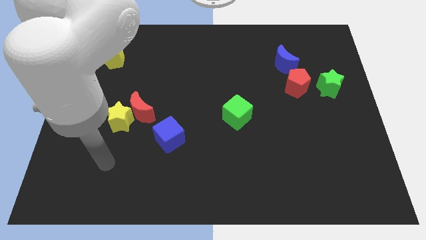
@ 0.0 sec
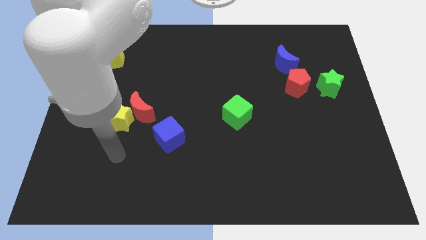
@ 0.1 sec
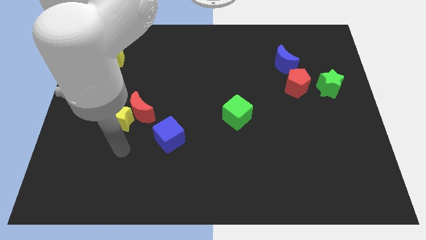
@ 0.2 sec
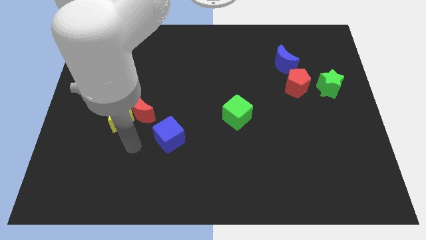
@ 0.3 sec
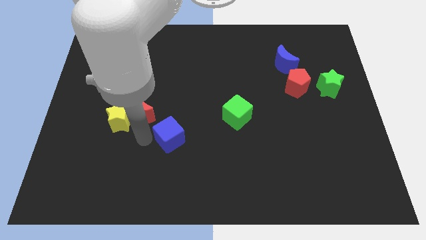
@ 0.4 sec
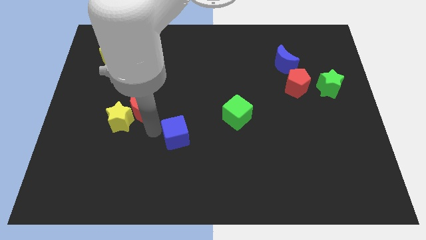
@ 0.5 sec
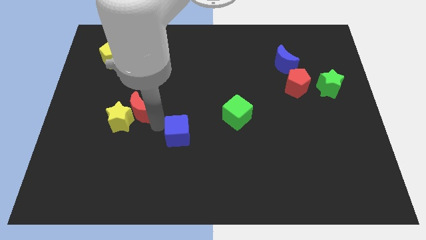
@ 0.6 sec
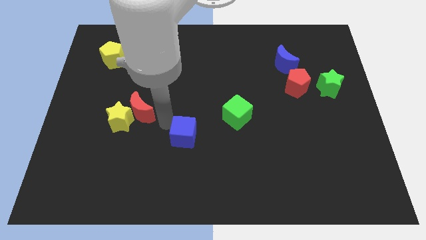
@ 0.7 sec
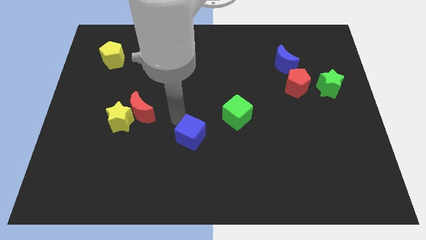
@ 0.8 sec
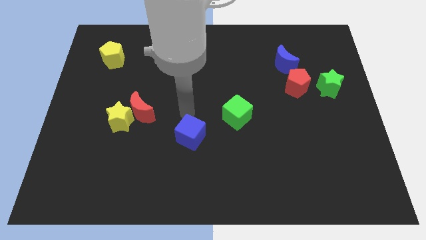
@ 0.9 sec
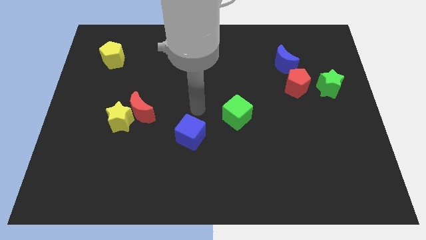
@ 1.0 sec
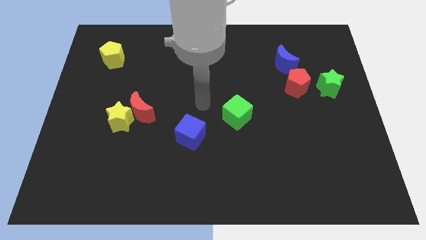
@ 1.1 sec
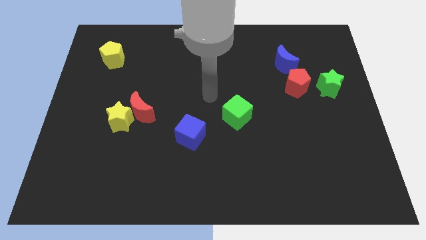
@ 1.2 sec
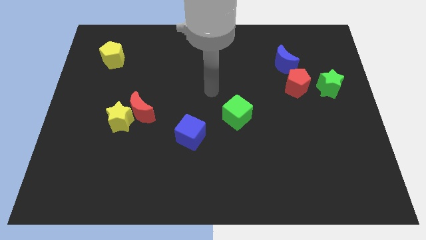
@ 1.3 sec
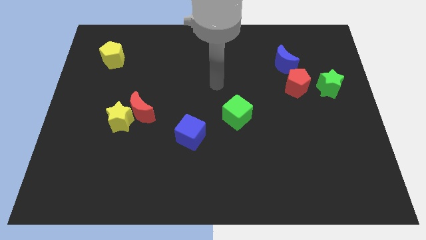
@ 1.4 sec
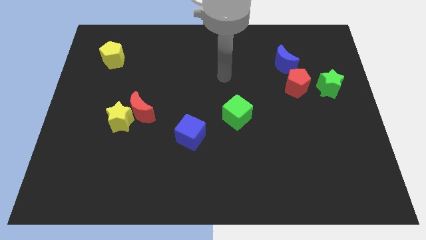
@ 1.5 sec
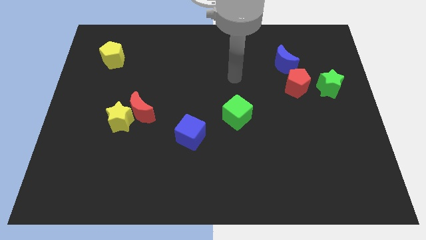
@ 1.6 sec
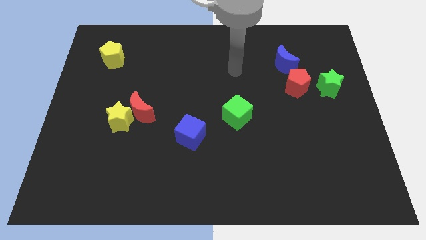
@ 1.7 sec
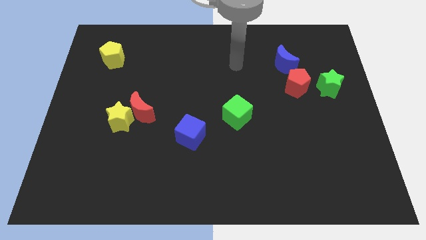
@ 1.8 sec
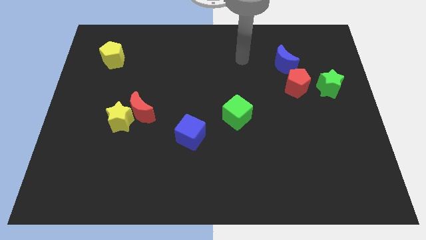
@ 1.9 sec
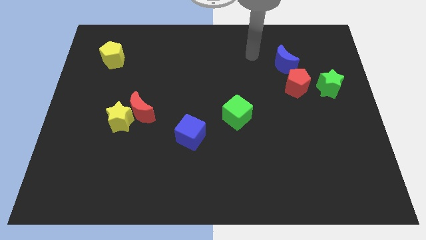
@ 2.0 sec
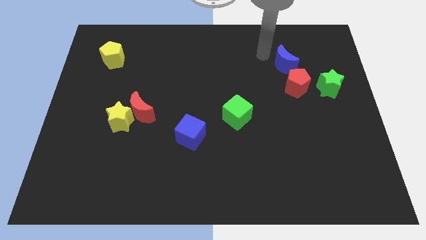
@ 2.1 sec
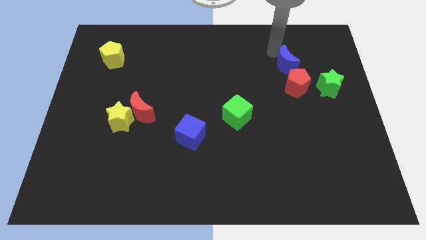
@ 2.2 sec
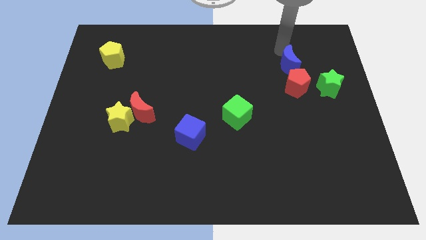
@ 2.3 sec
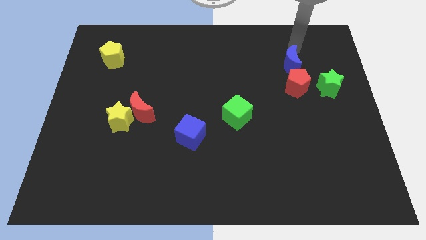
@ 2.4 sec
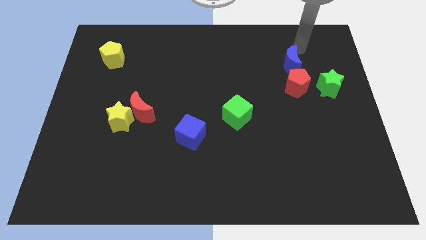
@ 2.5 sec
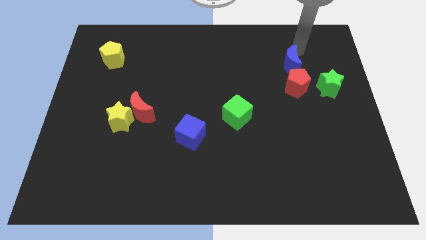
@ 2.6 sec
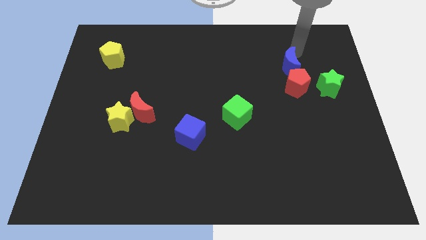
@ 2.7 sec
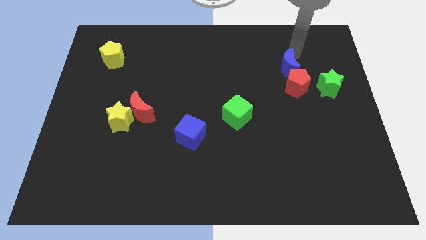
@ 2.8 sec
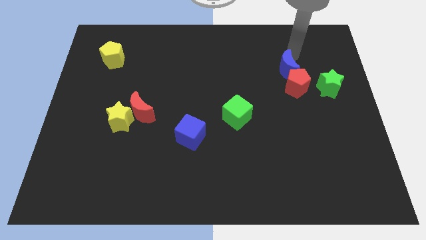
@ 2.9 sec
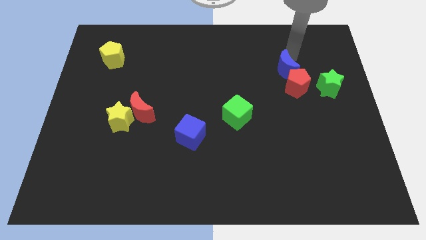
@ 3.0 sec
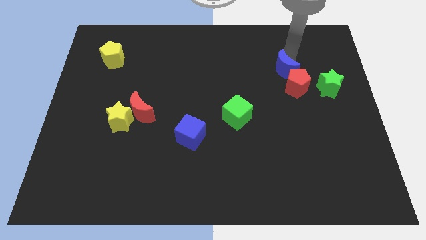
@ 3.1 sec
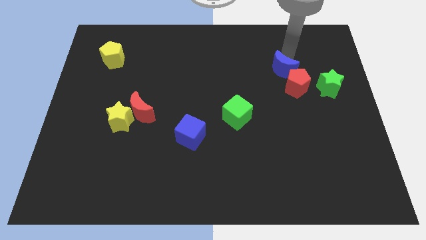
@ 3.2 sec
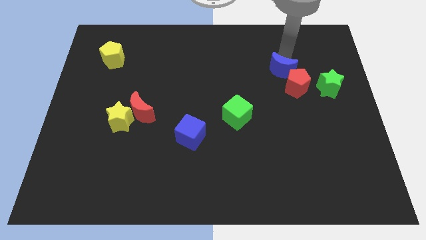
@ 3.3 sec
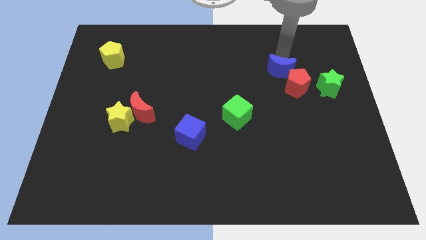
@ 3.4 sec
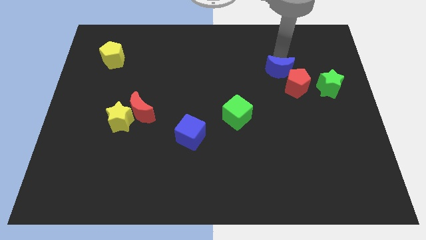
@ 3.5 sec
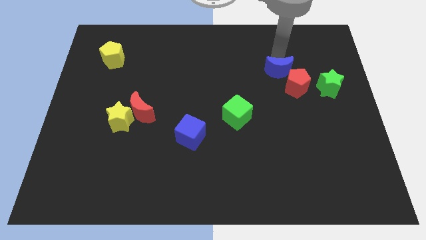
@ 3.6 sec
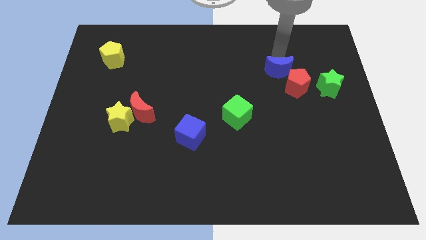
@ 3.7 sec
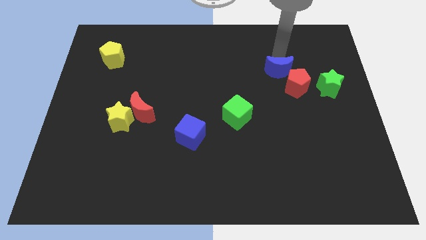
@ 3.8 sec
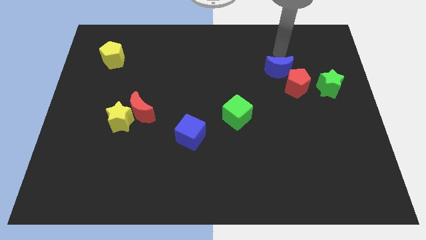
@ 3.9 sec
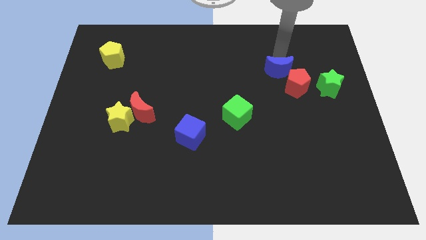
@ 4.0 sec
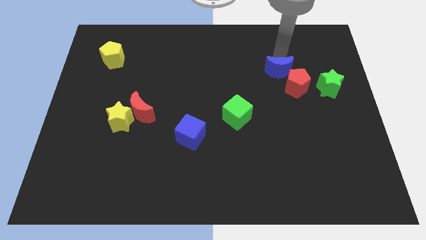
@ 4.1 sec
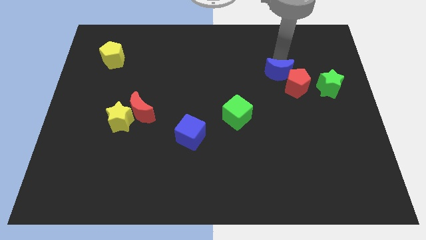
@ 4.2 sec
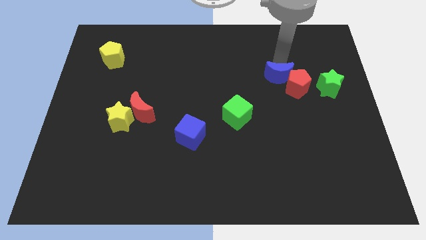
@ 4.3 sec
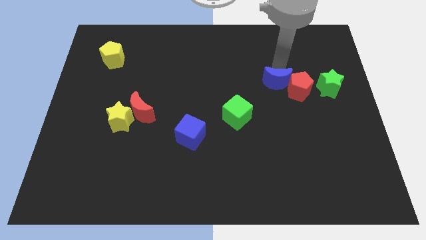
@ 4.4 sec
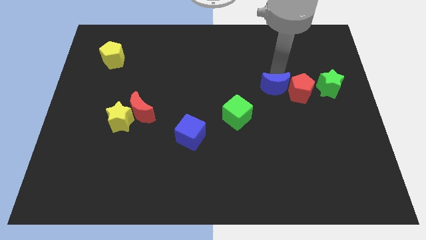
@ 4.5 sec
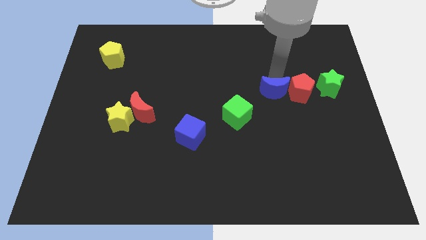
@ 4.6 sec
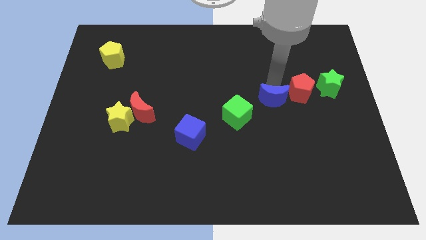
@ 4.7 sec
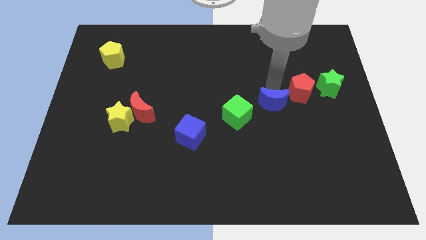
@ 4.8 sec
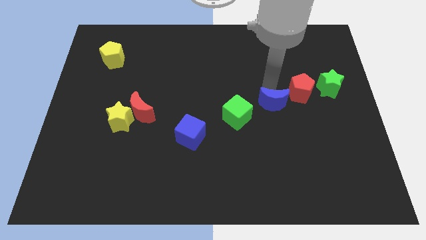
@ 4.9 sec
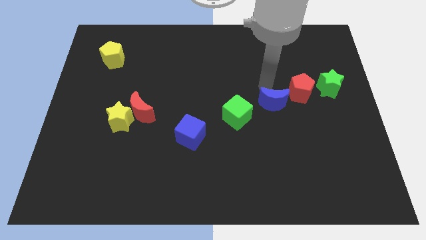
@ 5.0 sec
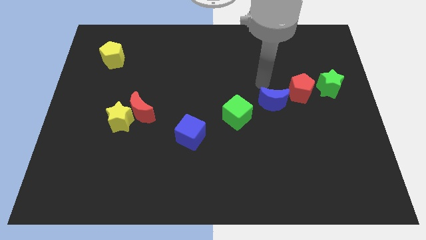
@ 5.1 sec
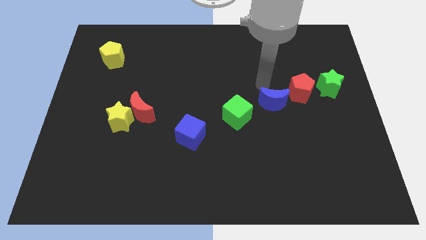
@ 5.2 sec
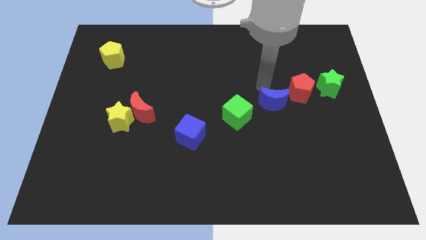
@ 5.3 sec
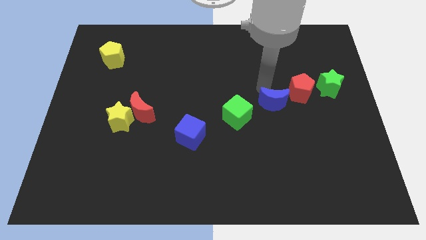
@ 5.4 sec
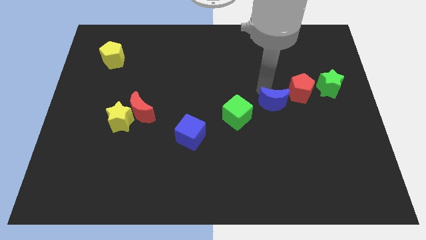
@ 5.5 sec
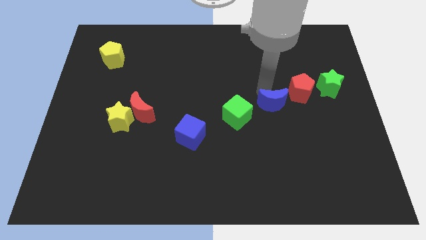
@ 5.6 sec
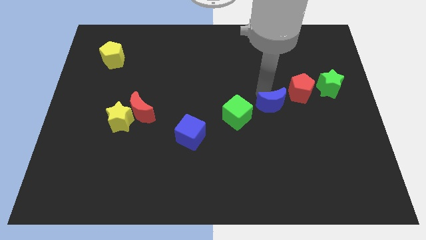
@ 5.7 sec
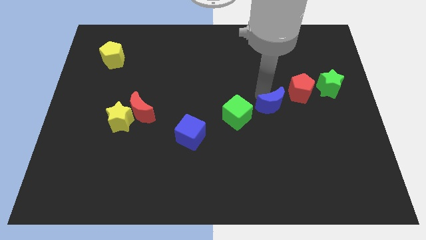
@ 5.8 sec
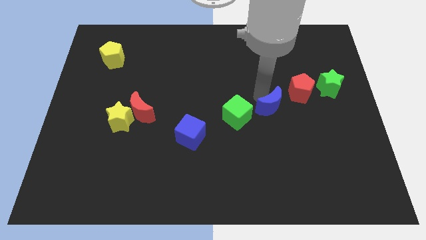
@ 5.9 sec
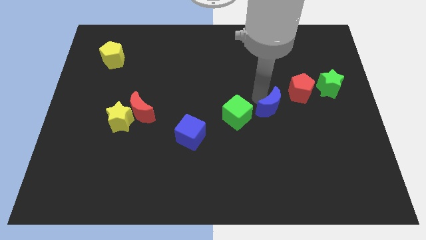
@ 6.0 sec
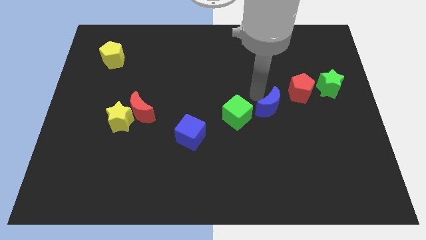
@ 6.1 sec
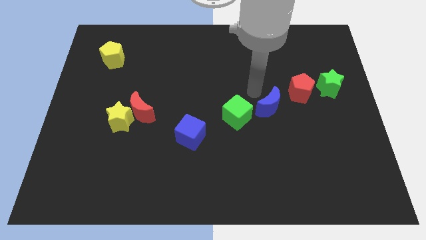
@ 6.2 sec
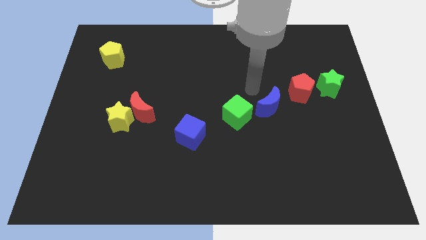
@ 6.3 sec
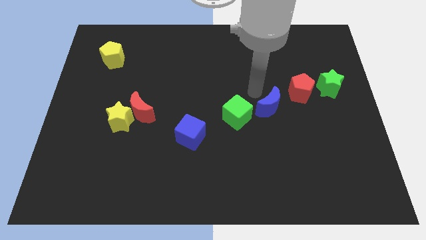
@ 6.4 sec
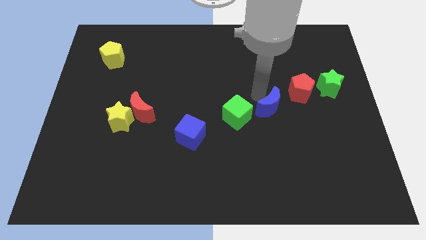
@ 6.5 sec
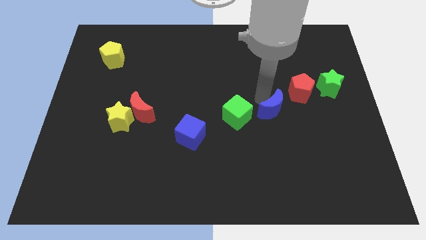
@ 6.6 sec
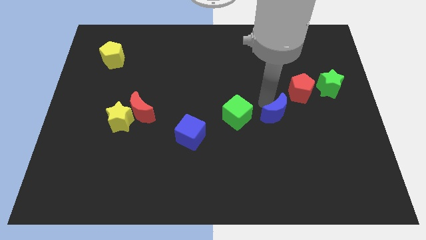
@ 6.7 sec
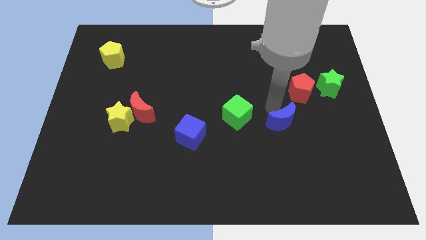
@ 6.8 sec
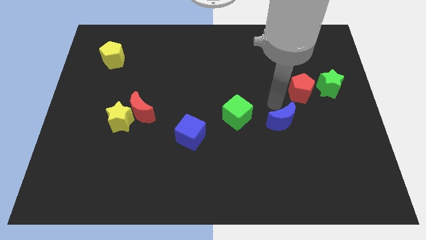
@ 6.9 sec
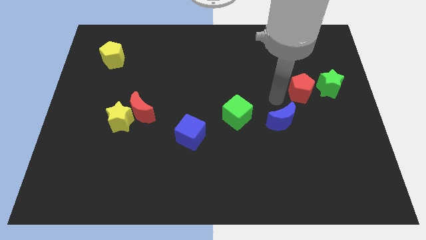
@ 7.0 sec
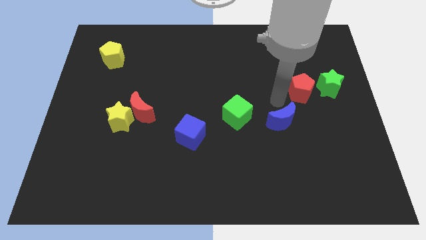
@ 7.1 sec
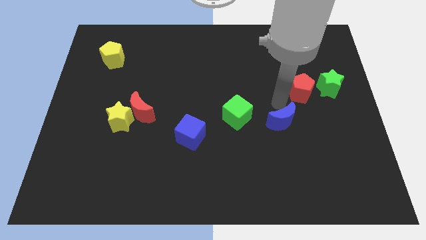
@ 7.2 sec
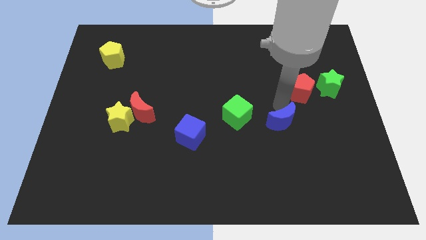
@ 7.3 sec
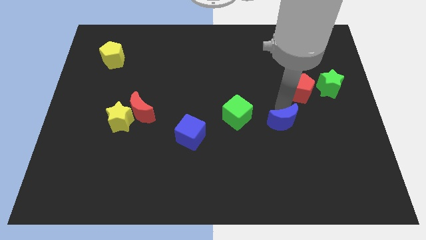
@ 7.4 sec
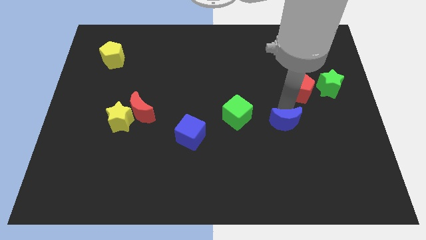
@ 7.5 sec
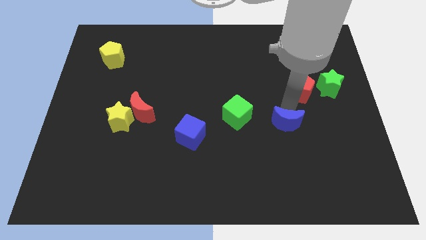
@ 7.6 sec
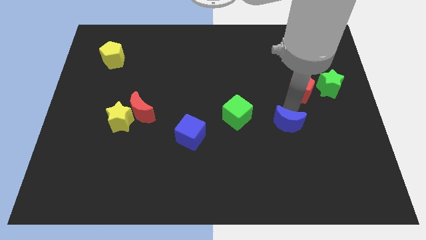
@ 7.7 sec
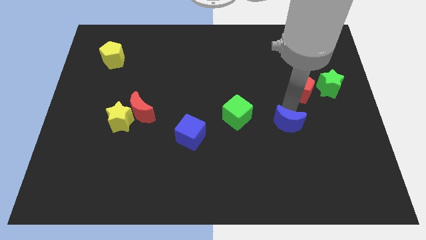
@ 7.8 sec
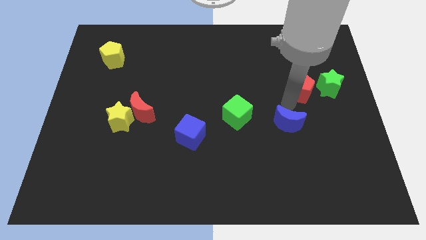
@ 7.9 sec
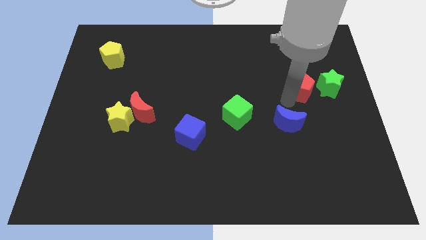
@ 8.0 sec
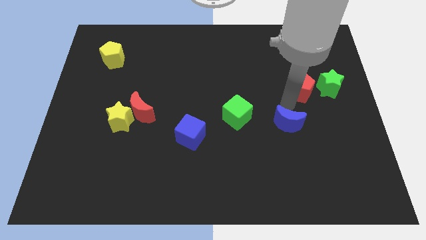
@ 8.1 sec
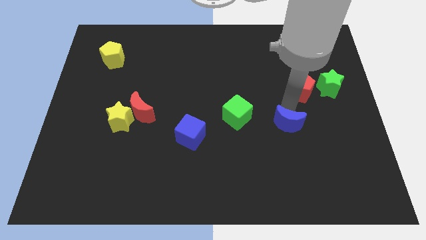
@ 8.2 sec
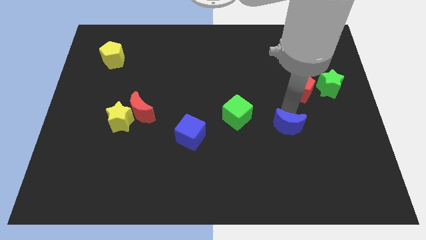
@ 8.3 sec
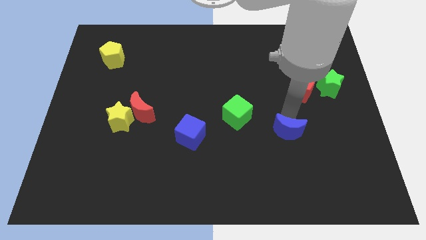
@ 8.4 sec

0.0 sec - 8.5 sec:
slide the blue moon downwards
